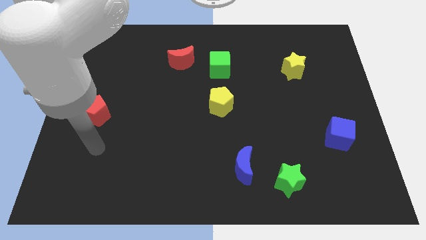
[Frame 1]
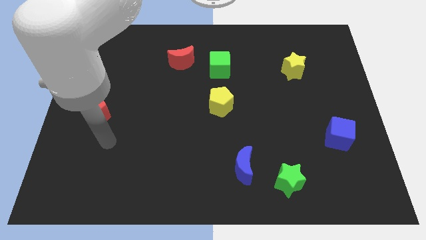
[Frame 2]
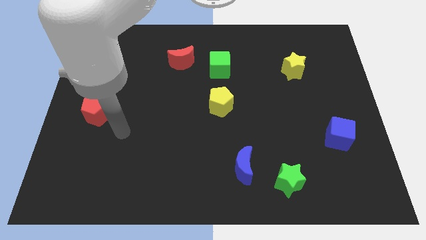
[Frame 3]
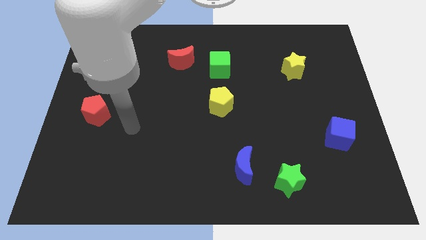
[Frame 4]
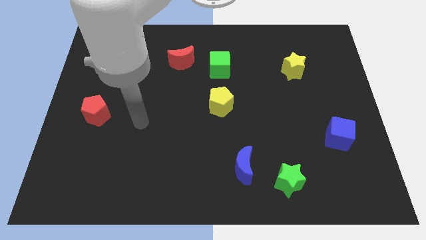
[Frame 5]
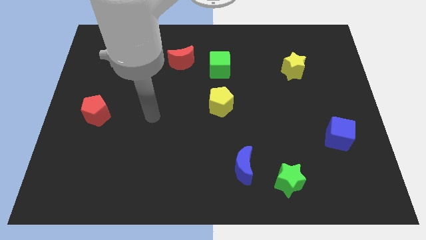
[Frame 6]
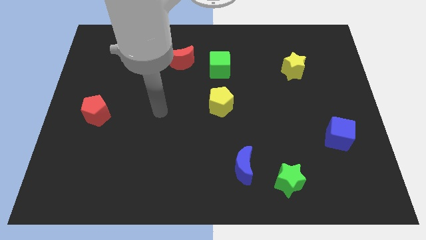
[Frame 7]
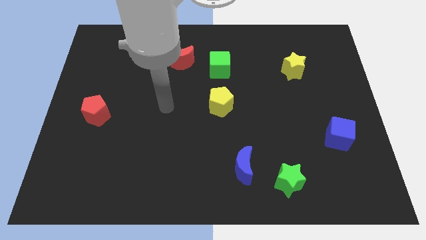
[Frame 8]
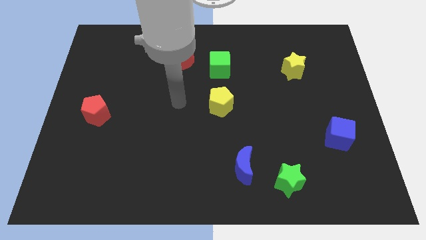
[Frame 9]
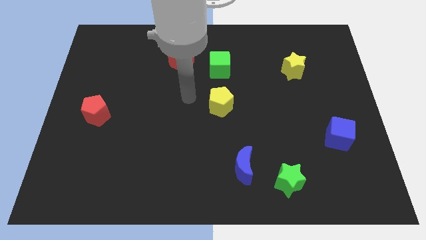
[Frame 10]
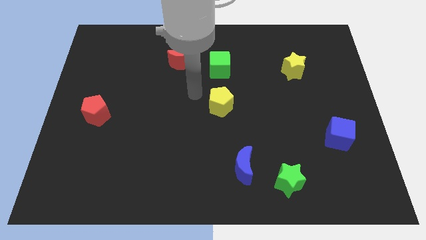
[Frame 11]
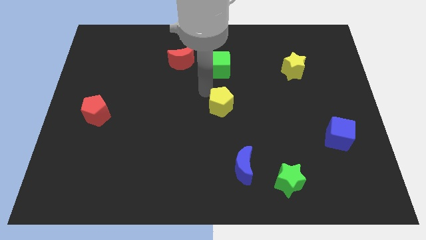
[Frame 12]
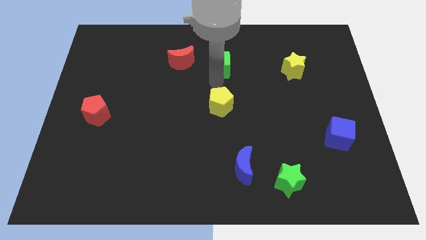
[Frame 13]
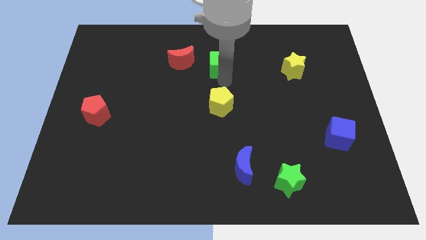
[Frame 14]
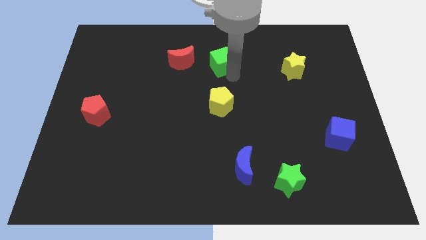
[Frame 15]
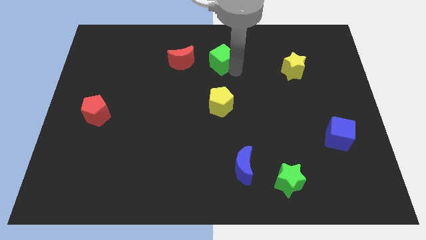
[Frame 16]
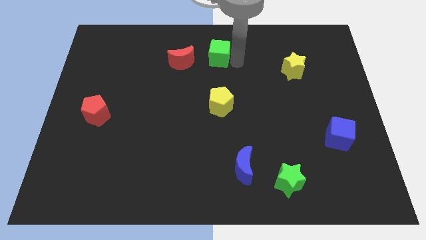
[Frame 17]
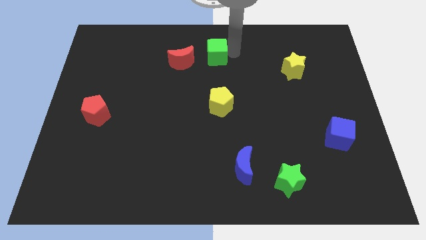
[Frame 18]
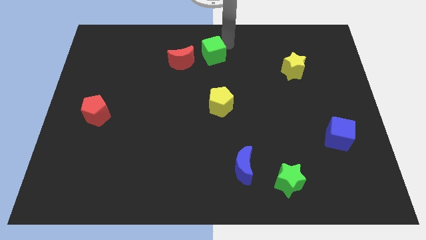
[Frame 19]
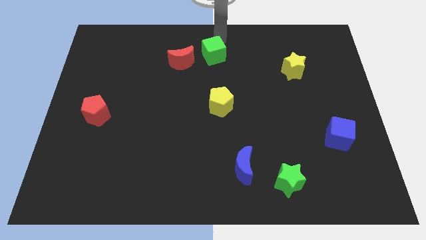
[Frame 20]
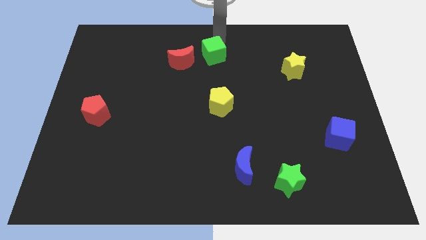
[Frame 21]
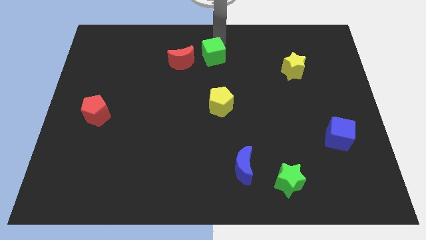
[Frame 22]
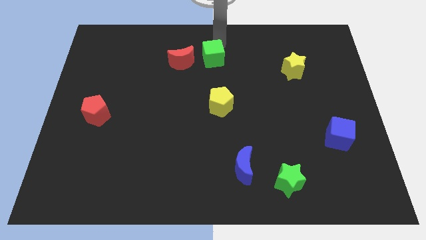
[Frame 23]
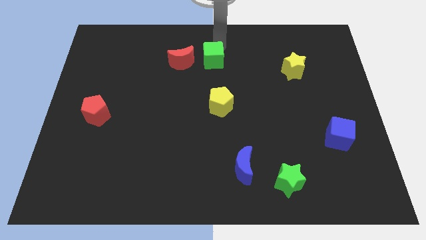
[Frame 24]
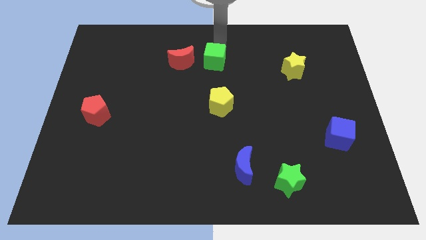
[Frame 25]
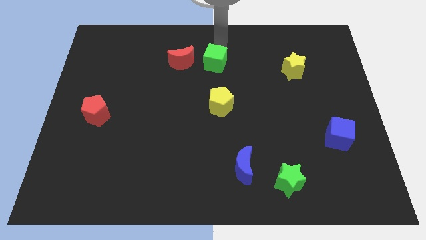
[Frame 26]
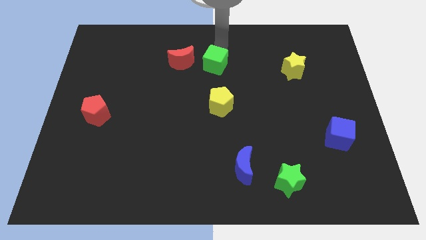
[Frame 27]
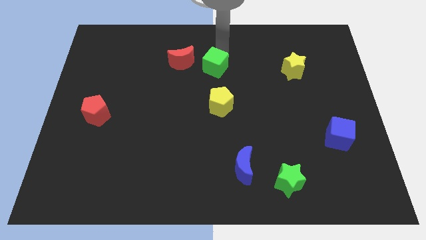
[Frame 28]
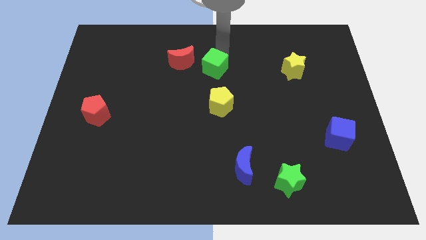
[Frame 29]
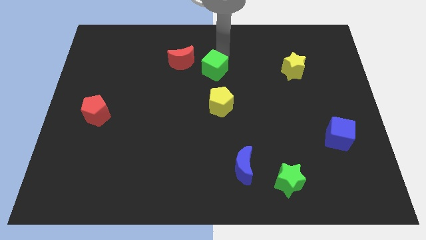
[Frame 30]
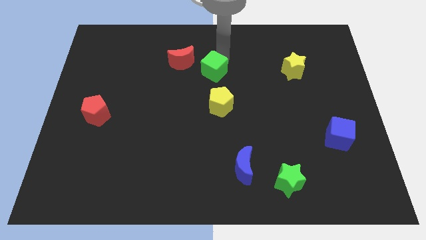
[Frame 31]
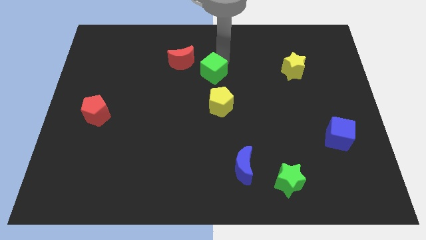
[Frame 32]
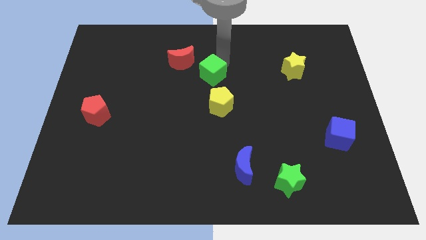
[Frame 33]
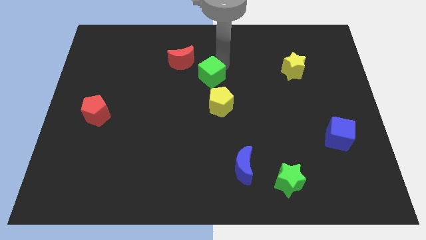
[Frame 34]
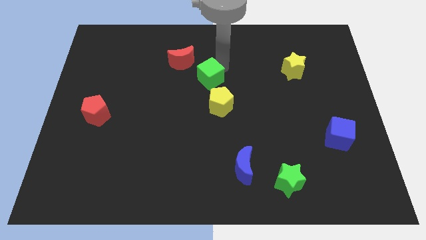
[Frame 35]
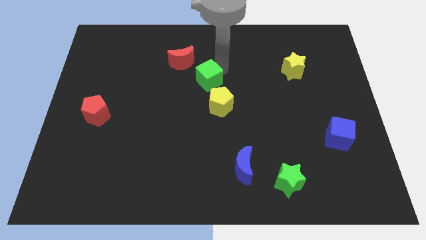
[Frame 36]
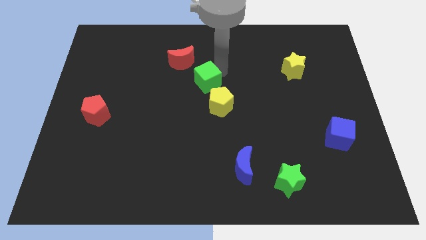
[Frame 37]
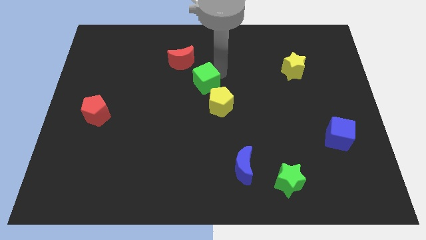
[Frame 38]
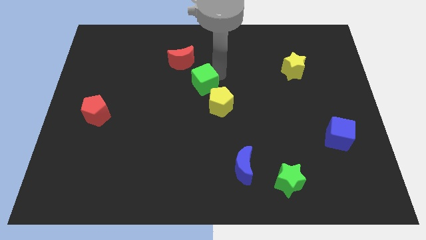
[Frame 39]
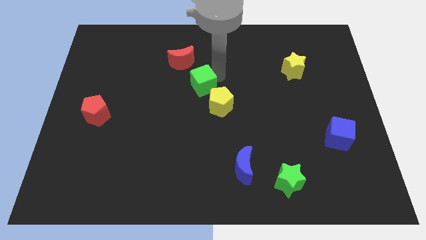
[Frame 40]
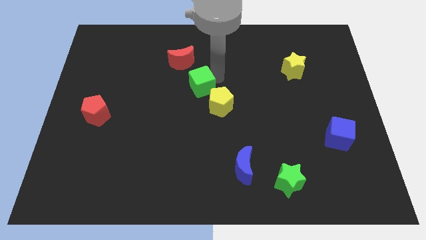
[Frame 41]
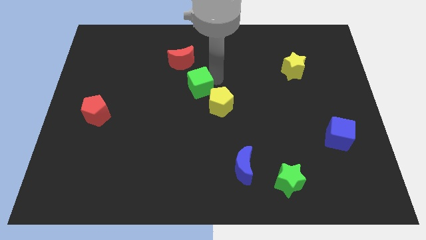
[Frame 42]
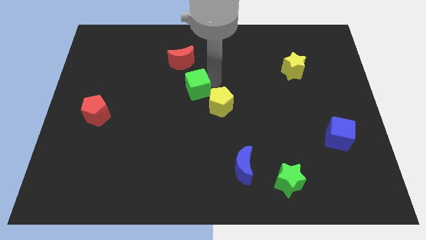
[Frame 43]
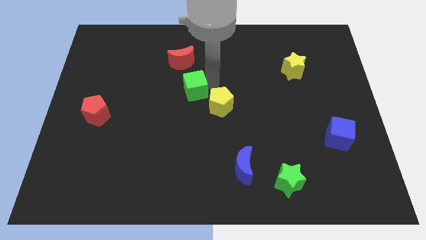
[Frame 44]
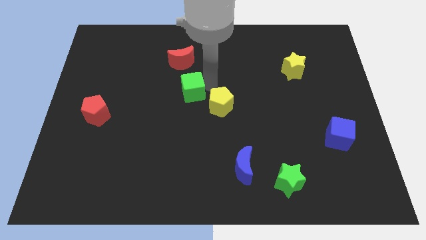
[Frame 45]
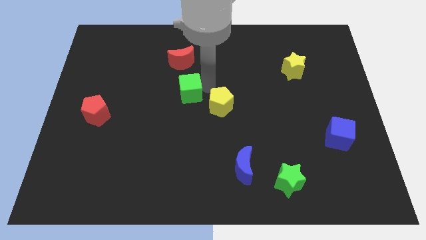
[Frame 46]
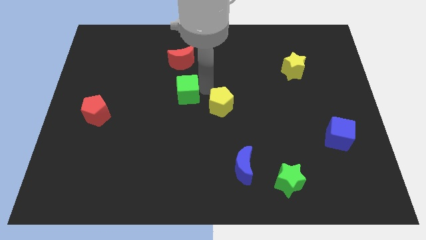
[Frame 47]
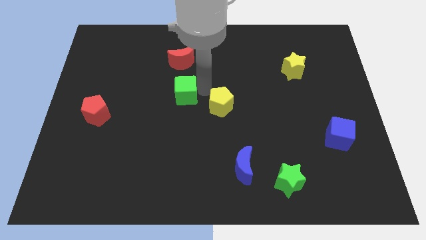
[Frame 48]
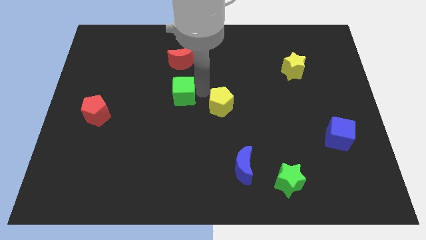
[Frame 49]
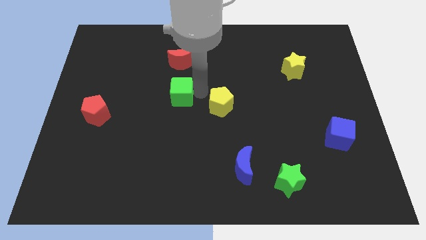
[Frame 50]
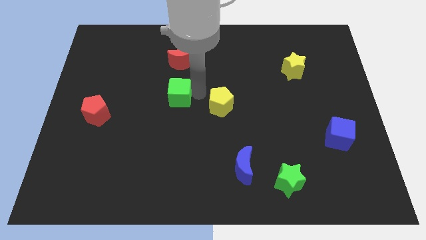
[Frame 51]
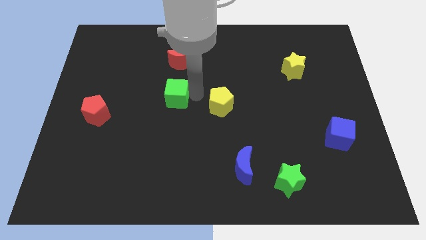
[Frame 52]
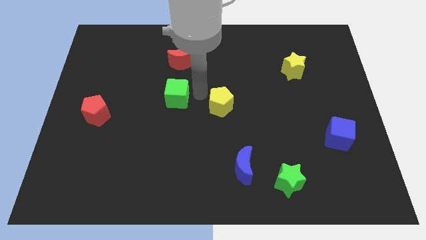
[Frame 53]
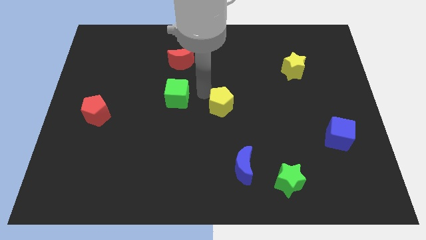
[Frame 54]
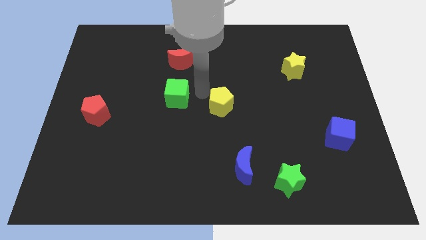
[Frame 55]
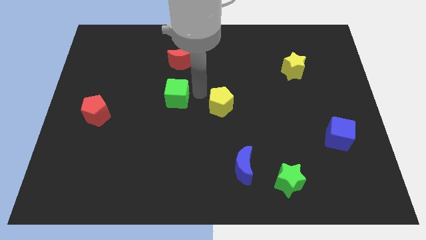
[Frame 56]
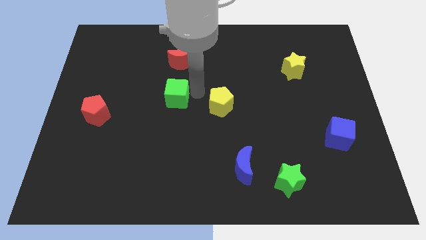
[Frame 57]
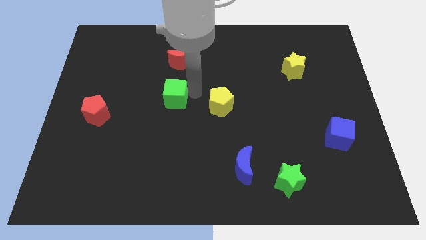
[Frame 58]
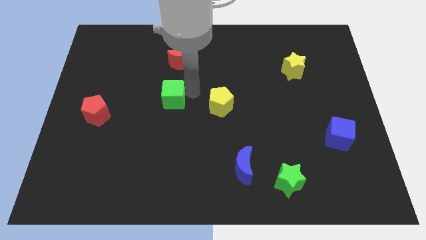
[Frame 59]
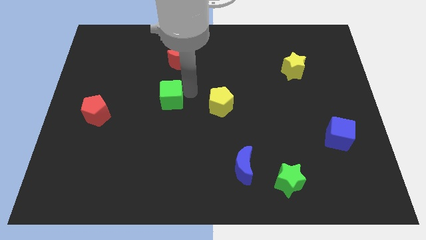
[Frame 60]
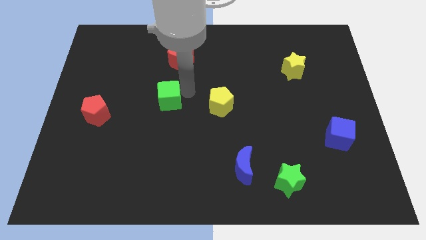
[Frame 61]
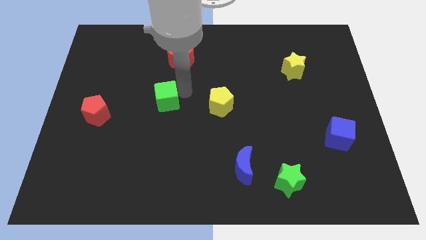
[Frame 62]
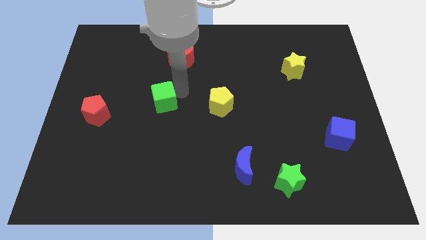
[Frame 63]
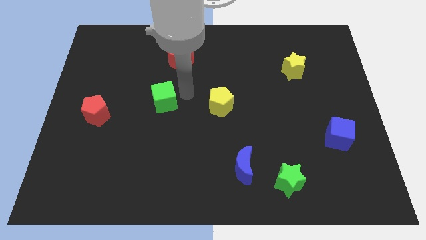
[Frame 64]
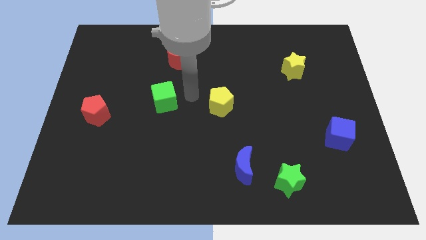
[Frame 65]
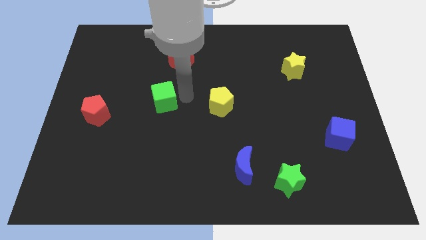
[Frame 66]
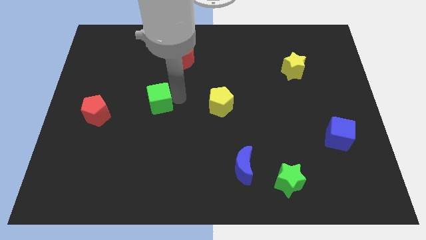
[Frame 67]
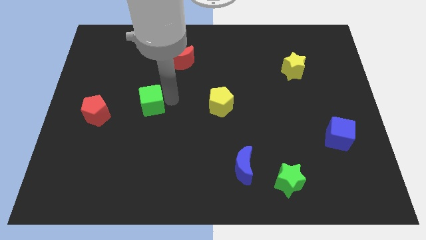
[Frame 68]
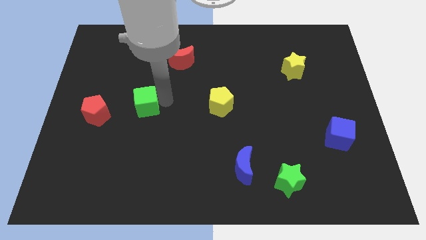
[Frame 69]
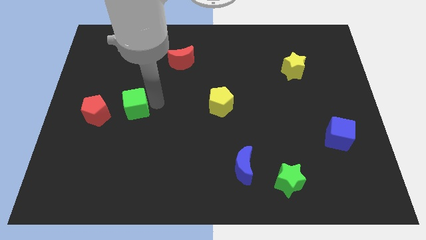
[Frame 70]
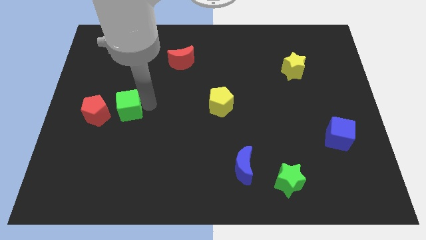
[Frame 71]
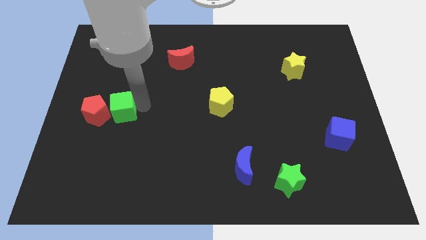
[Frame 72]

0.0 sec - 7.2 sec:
put the green cube towards the red pentagon
